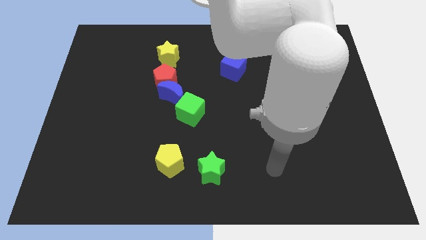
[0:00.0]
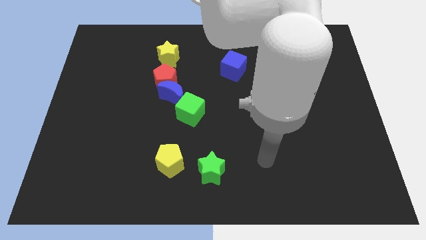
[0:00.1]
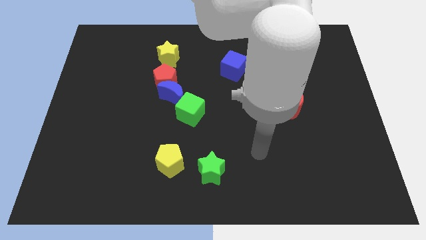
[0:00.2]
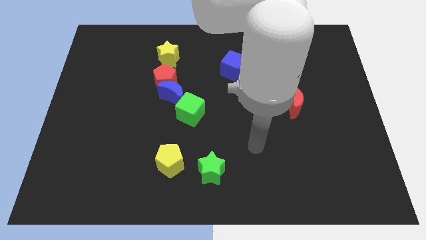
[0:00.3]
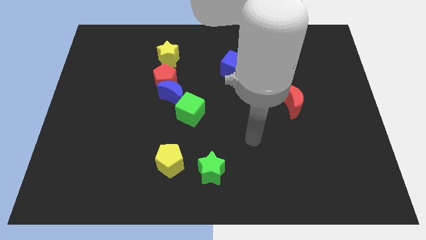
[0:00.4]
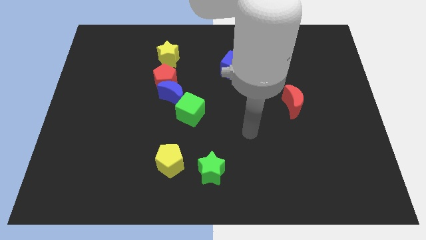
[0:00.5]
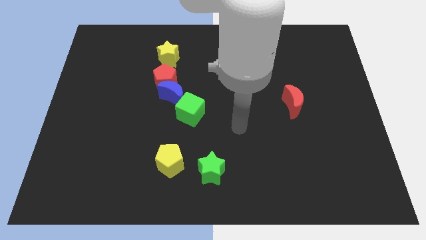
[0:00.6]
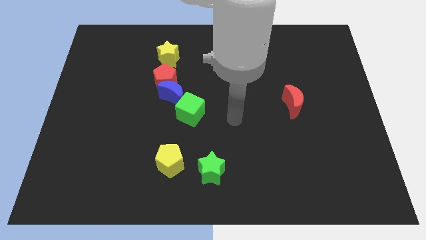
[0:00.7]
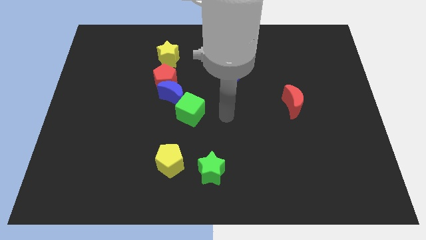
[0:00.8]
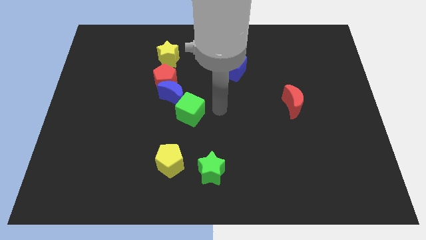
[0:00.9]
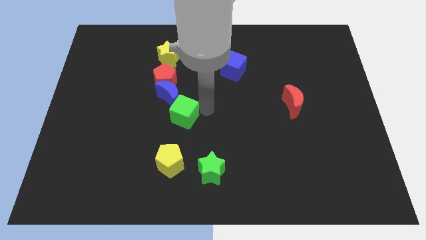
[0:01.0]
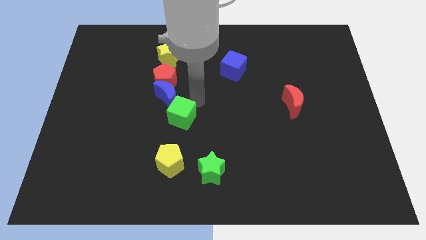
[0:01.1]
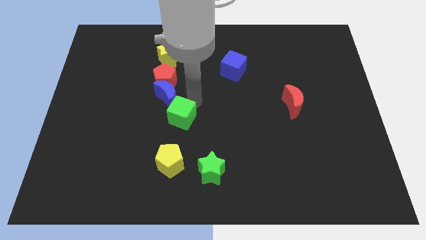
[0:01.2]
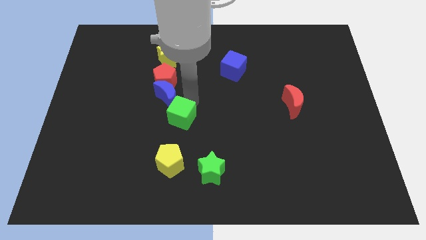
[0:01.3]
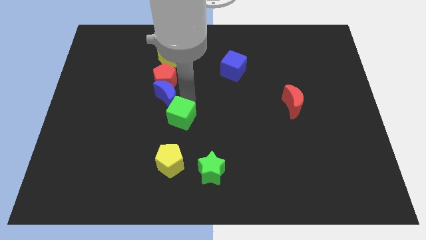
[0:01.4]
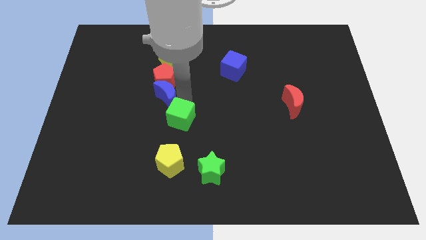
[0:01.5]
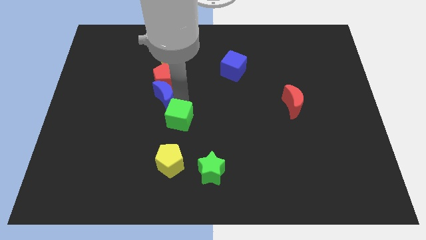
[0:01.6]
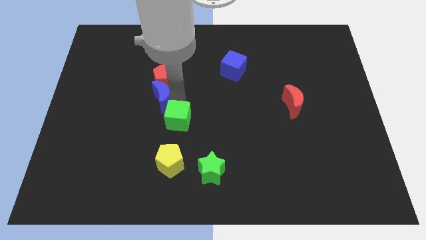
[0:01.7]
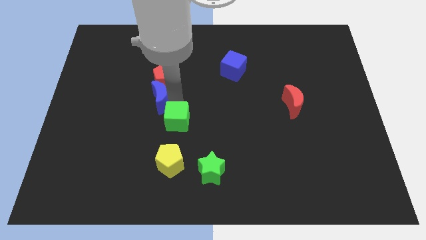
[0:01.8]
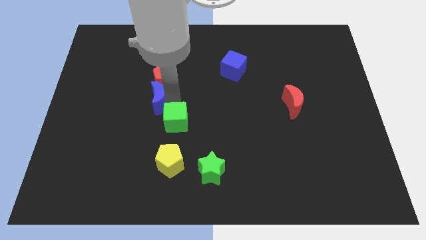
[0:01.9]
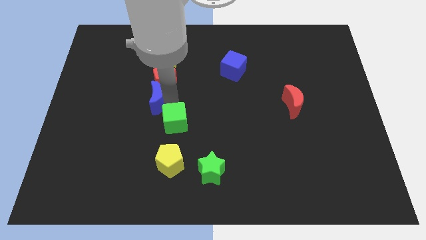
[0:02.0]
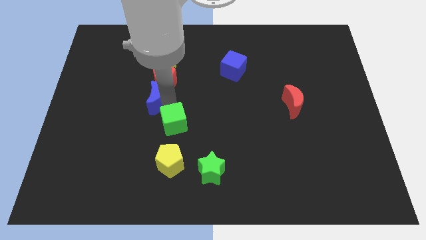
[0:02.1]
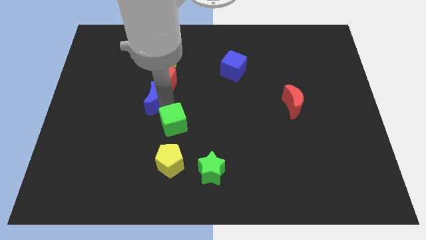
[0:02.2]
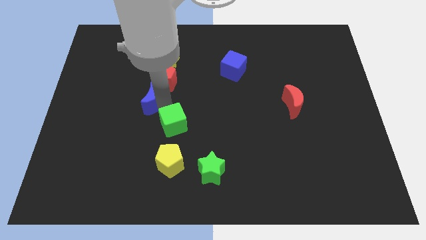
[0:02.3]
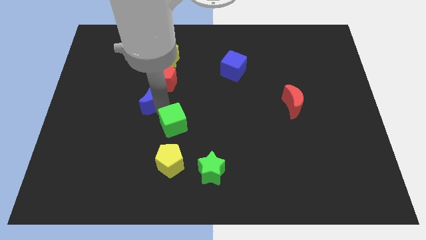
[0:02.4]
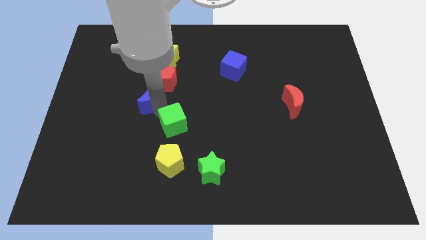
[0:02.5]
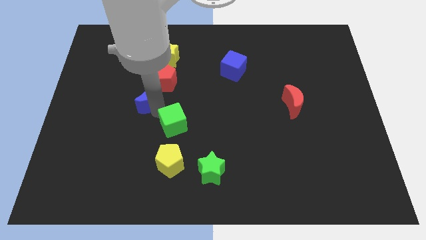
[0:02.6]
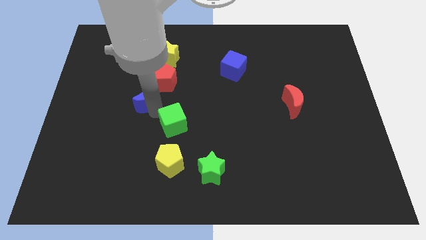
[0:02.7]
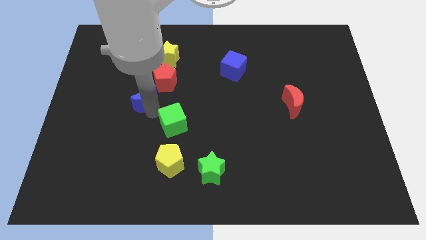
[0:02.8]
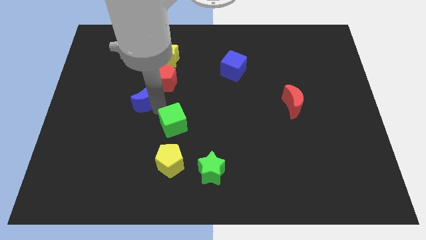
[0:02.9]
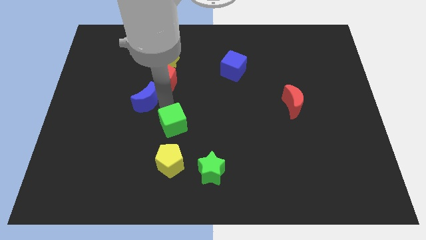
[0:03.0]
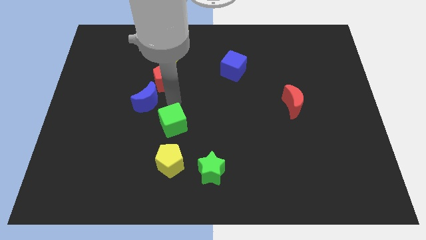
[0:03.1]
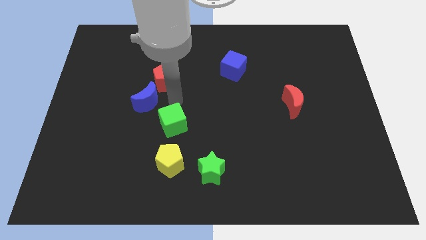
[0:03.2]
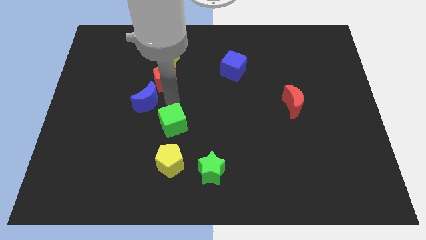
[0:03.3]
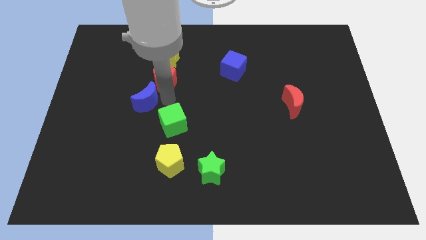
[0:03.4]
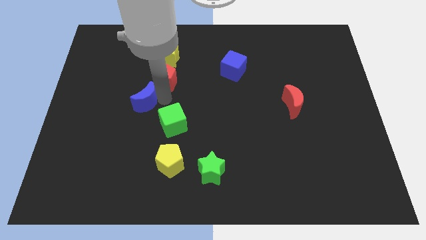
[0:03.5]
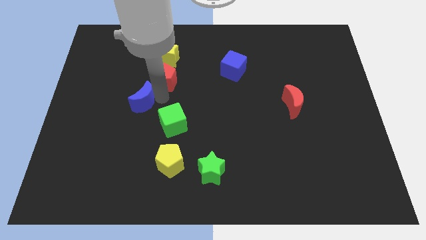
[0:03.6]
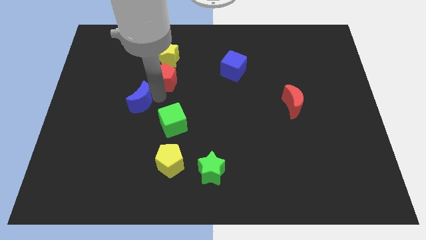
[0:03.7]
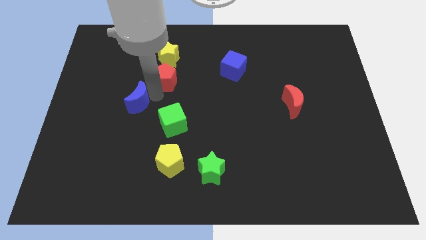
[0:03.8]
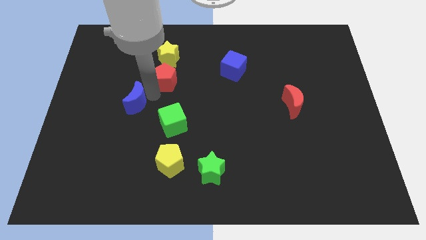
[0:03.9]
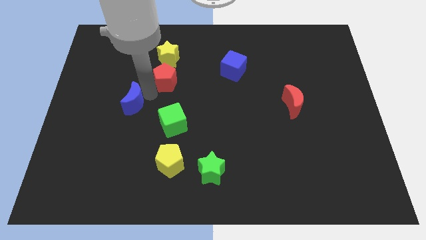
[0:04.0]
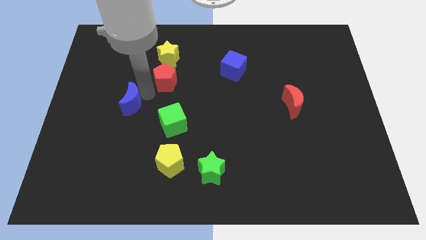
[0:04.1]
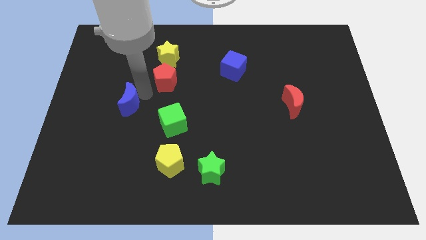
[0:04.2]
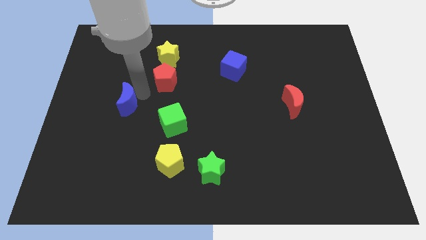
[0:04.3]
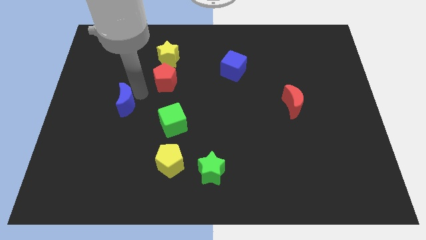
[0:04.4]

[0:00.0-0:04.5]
pull the blue moon apart from the red pentagon and green cube

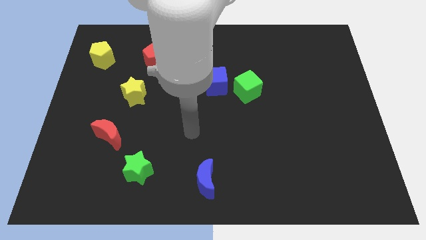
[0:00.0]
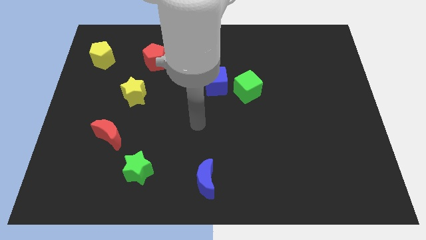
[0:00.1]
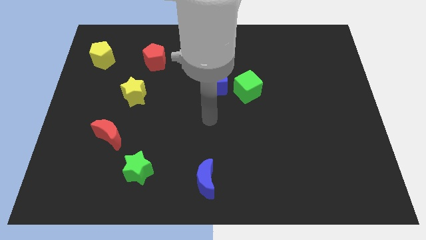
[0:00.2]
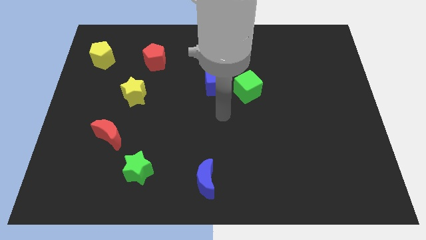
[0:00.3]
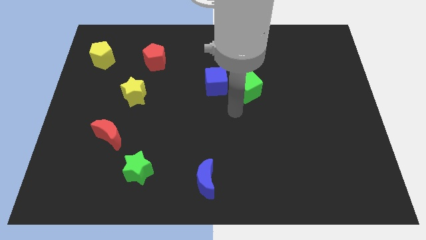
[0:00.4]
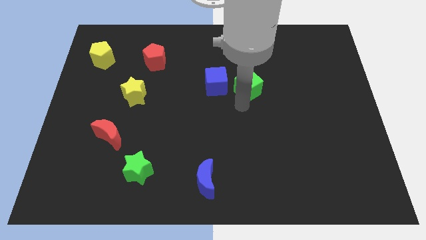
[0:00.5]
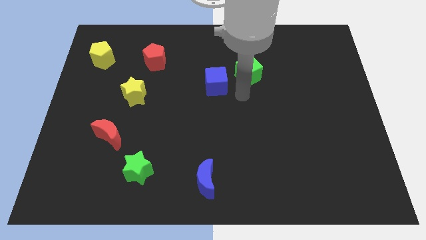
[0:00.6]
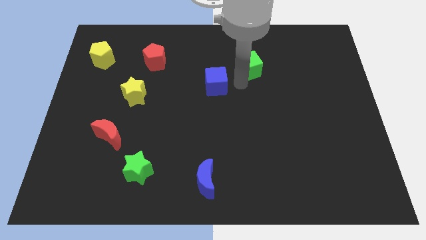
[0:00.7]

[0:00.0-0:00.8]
pull the blue cube apart from the green cube

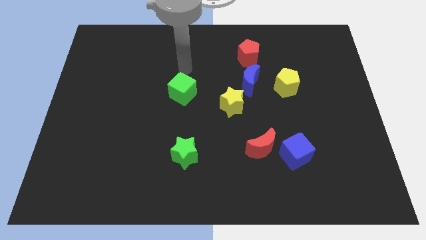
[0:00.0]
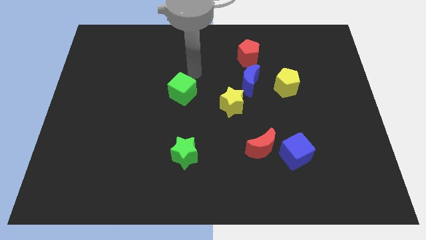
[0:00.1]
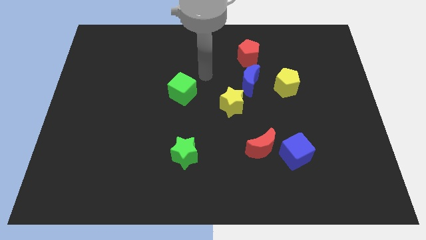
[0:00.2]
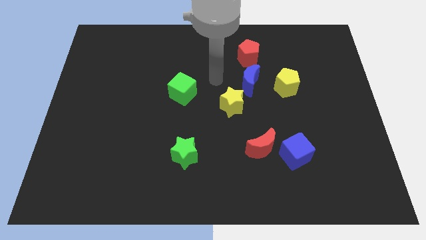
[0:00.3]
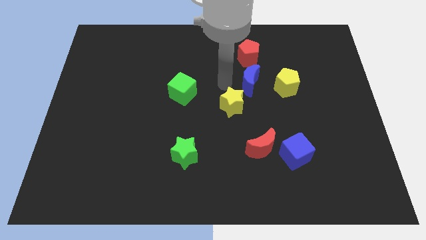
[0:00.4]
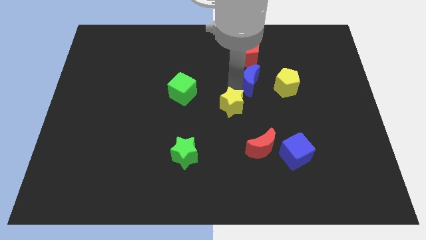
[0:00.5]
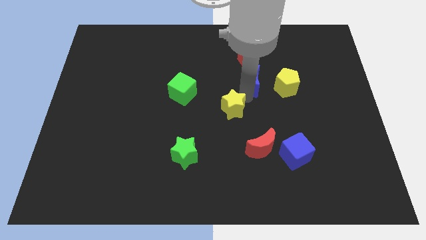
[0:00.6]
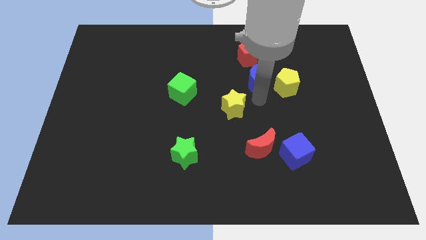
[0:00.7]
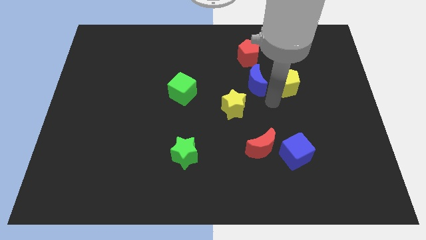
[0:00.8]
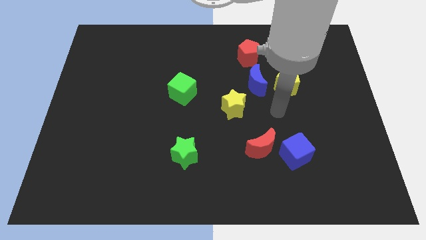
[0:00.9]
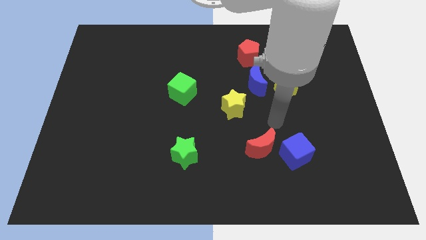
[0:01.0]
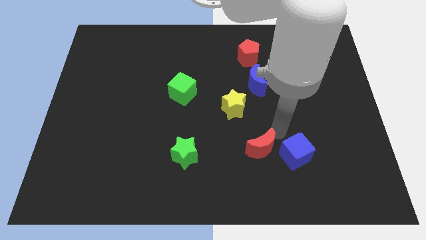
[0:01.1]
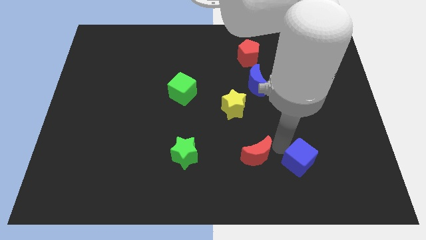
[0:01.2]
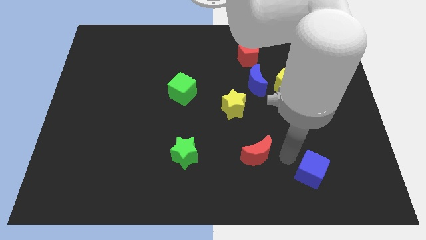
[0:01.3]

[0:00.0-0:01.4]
move the red moon away from the blue cube

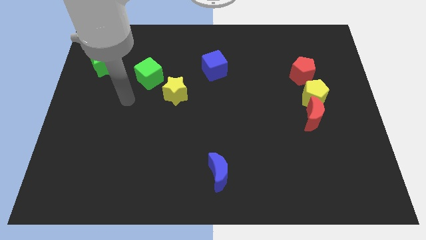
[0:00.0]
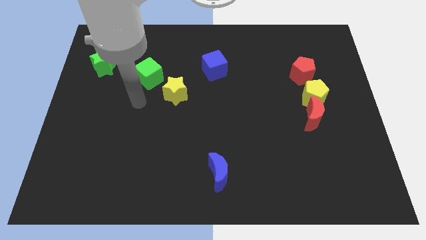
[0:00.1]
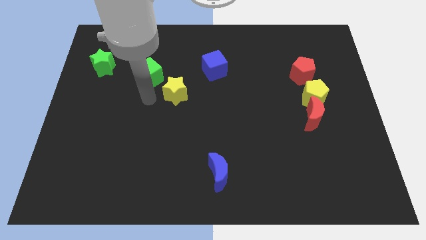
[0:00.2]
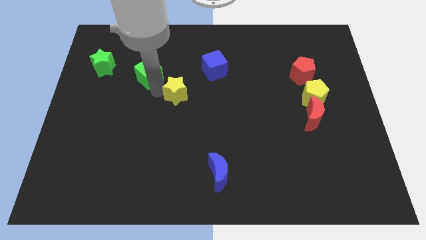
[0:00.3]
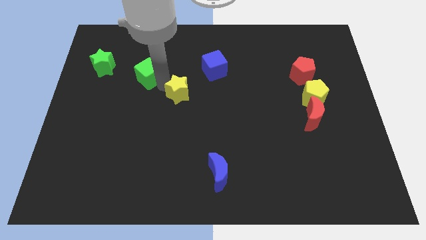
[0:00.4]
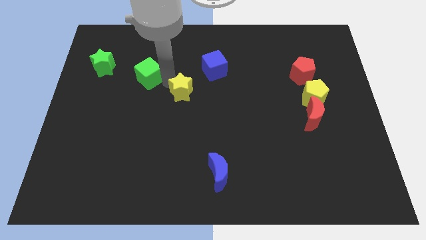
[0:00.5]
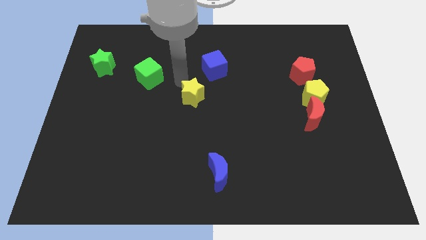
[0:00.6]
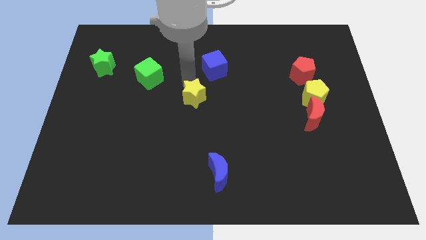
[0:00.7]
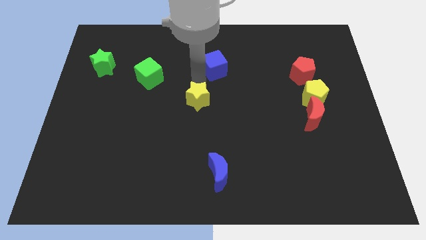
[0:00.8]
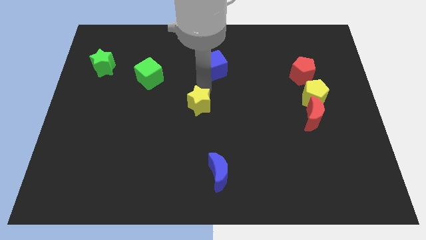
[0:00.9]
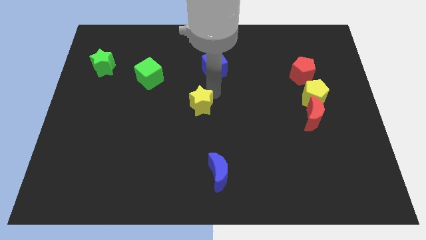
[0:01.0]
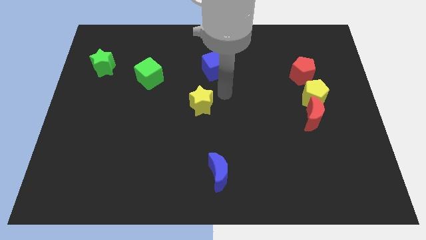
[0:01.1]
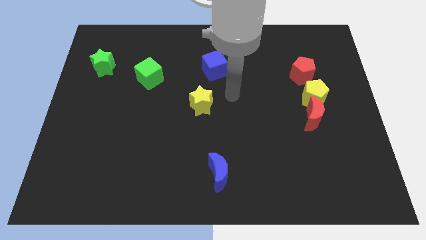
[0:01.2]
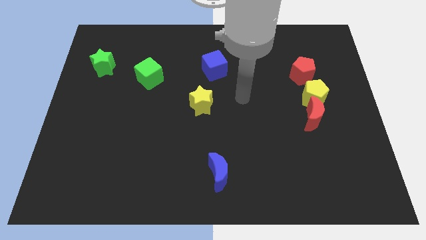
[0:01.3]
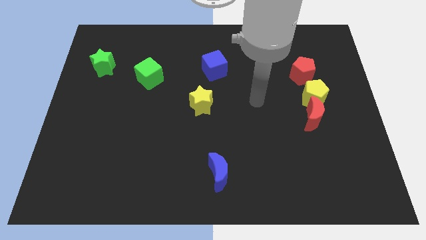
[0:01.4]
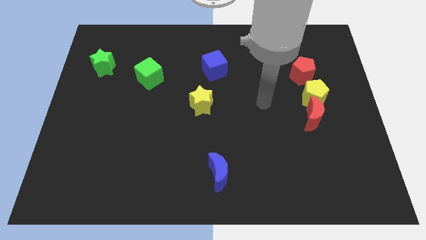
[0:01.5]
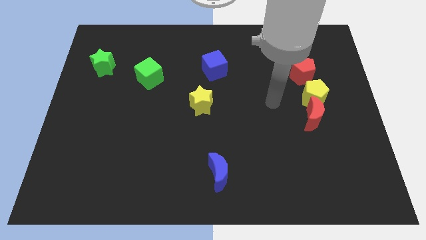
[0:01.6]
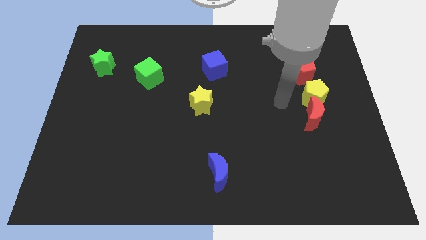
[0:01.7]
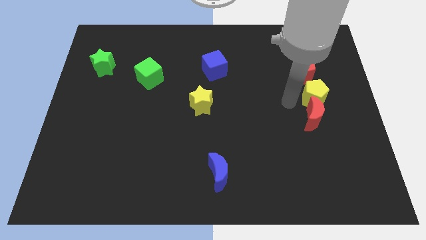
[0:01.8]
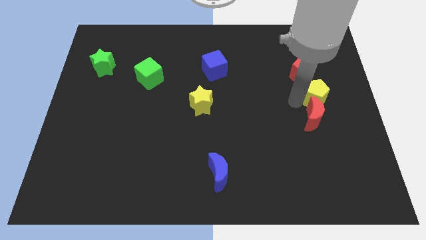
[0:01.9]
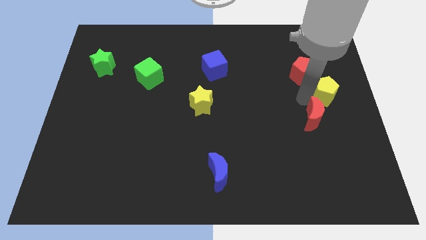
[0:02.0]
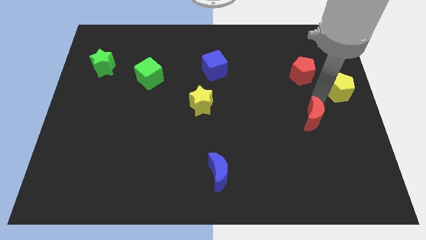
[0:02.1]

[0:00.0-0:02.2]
separate the red moon from the yellow pentagon

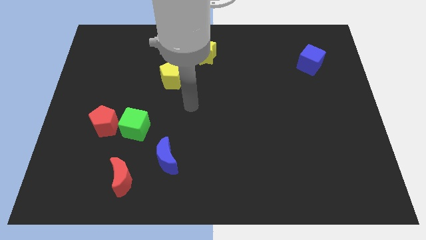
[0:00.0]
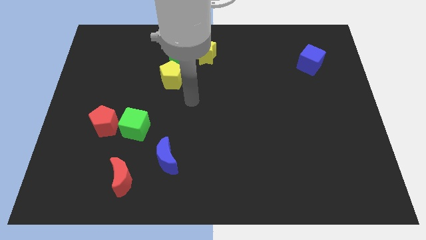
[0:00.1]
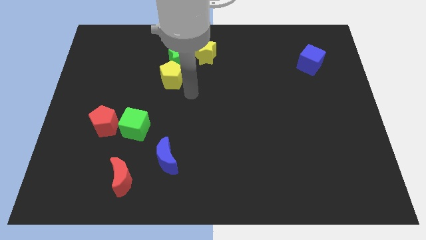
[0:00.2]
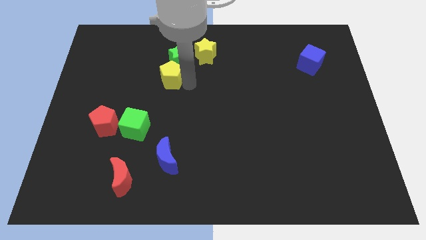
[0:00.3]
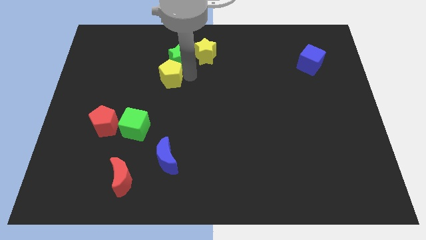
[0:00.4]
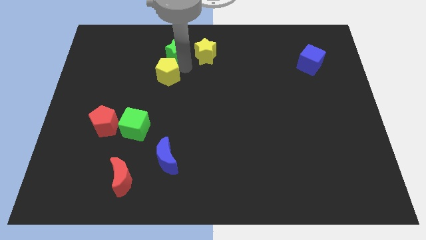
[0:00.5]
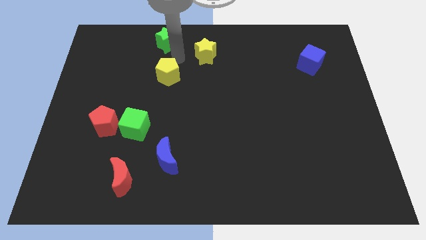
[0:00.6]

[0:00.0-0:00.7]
separate the yellow pentagon from the green star
